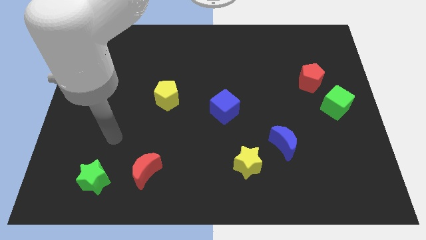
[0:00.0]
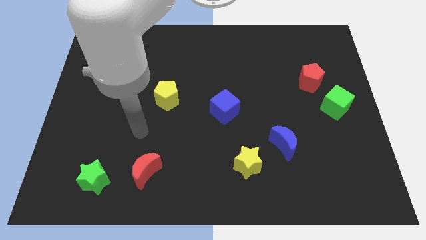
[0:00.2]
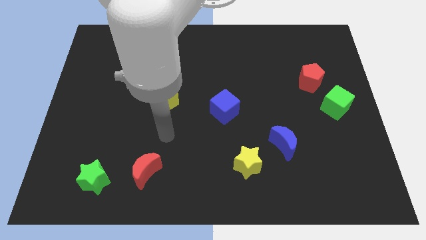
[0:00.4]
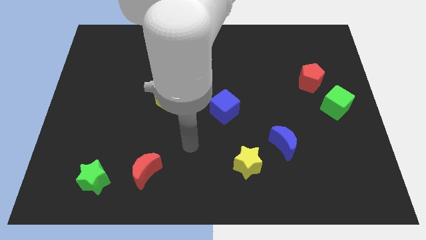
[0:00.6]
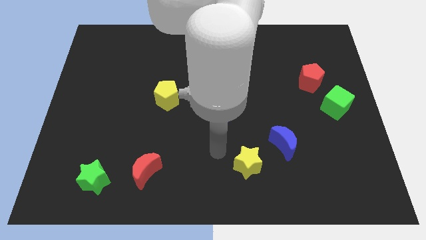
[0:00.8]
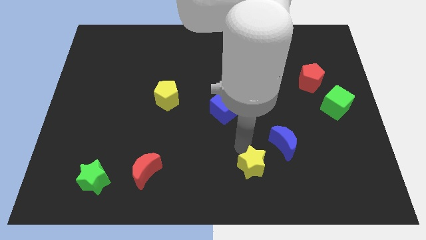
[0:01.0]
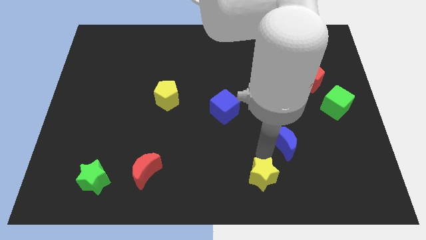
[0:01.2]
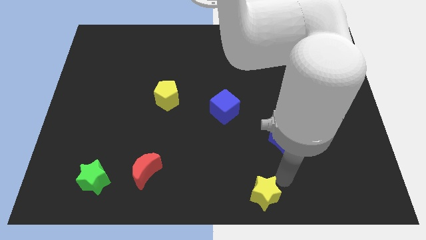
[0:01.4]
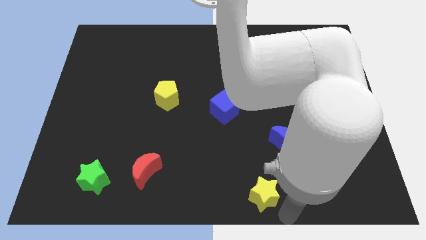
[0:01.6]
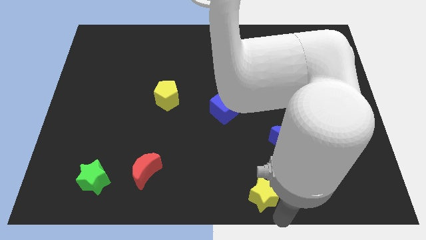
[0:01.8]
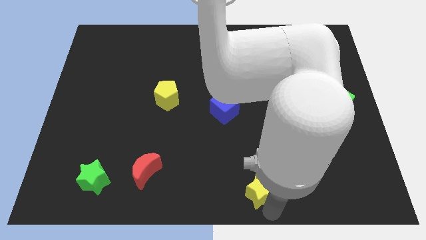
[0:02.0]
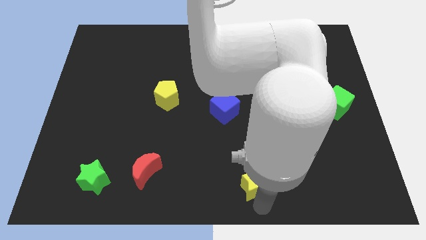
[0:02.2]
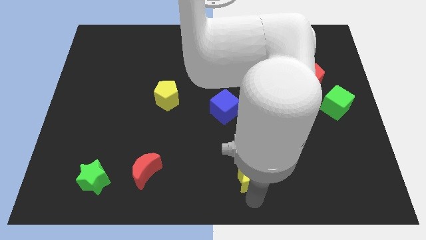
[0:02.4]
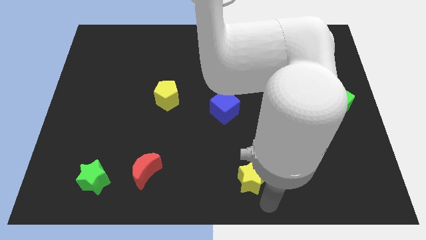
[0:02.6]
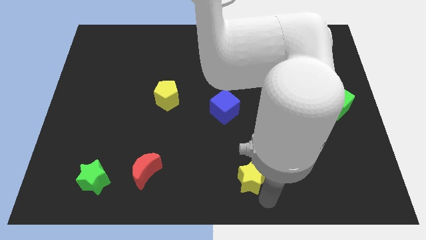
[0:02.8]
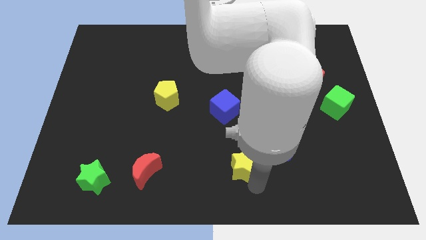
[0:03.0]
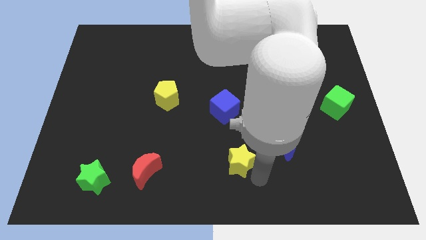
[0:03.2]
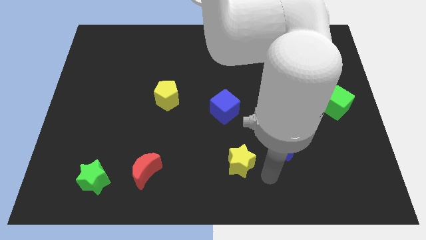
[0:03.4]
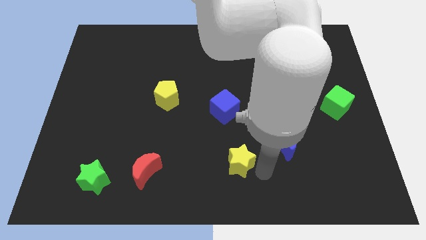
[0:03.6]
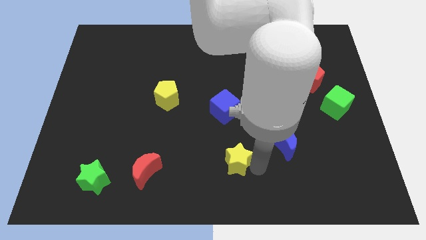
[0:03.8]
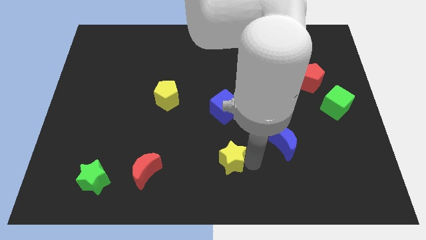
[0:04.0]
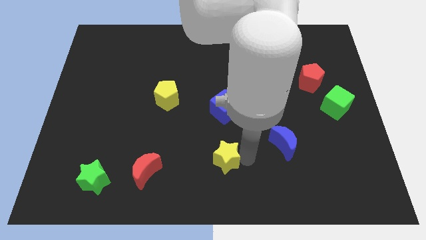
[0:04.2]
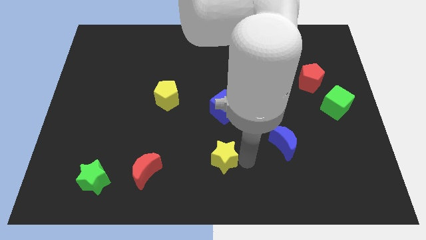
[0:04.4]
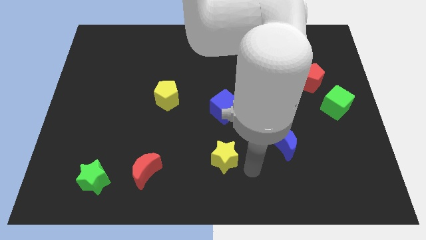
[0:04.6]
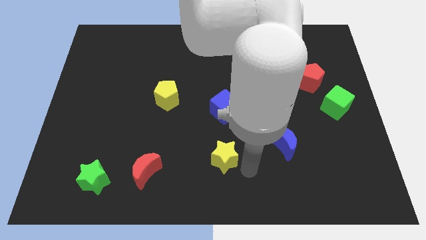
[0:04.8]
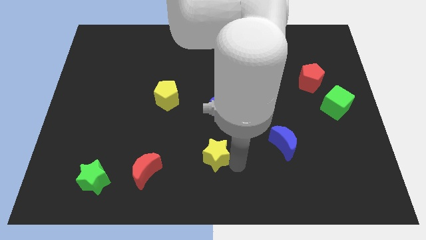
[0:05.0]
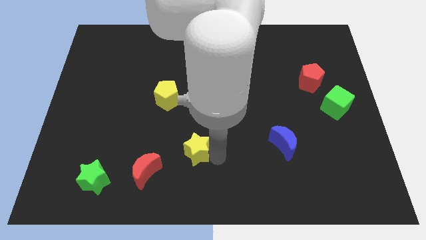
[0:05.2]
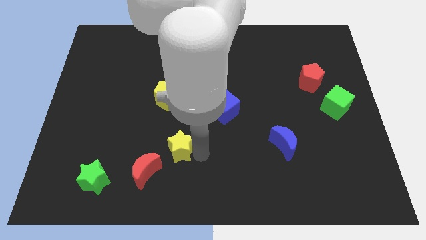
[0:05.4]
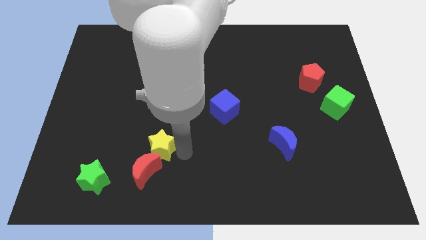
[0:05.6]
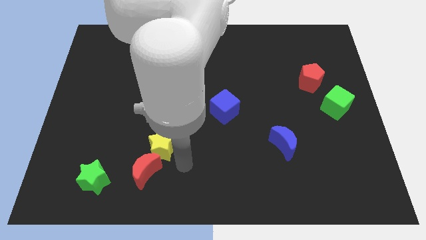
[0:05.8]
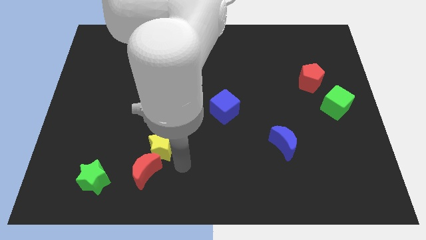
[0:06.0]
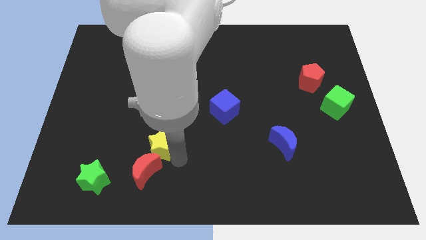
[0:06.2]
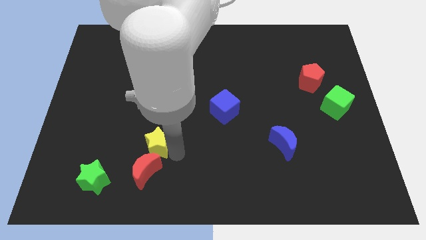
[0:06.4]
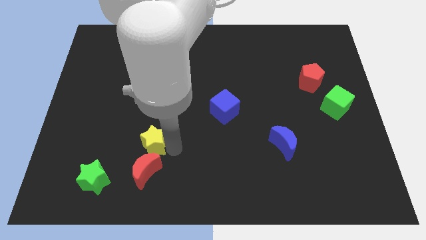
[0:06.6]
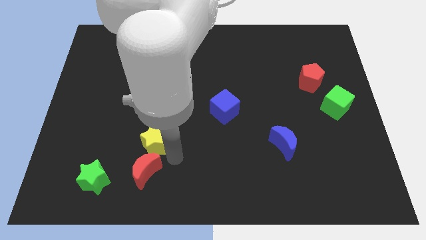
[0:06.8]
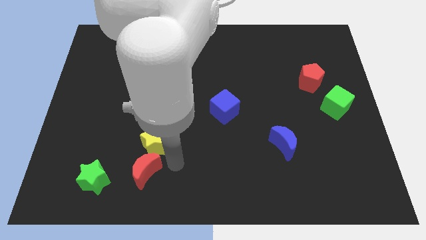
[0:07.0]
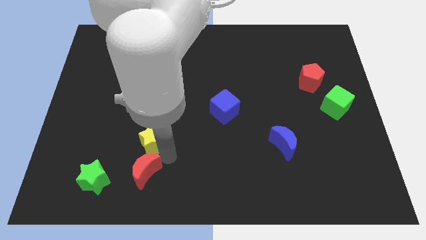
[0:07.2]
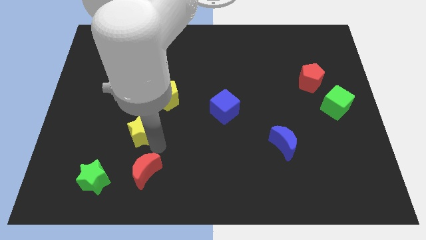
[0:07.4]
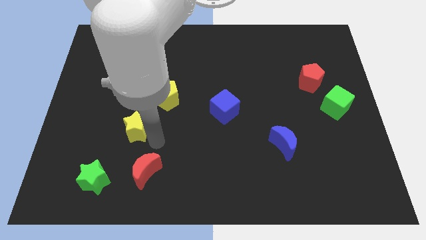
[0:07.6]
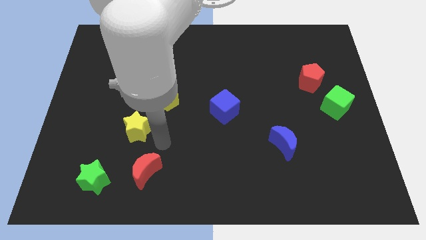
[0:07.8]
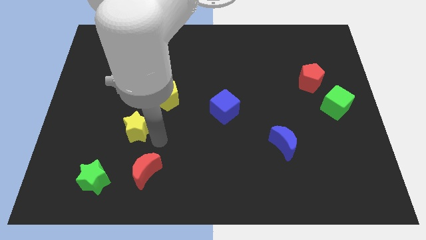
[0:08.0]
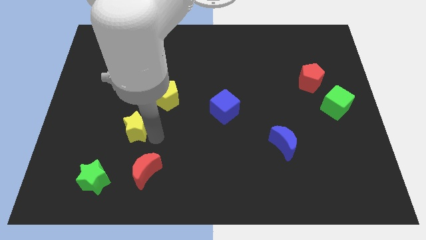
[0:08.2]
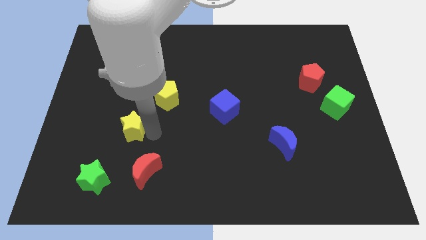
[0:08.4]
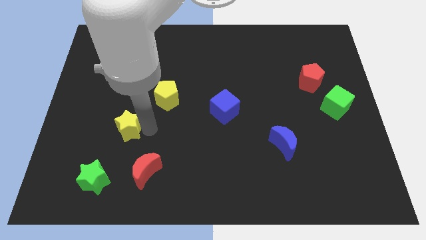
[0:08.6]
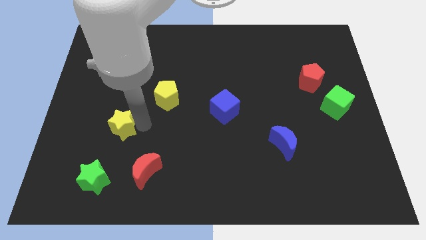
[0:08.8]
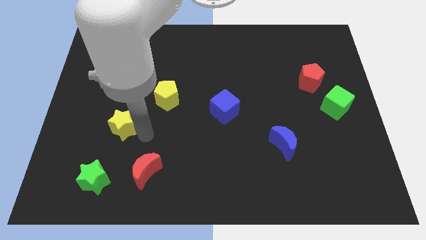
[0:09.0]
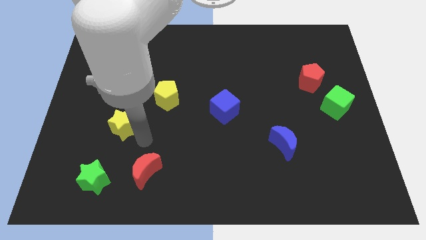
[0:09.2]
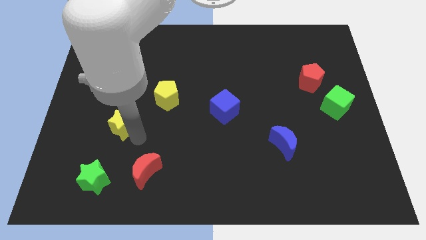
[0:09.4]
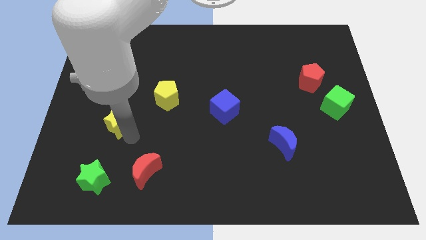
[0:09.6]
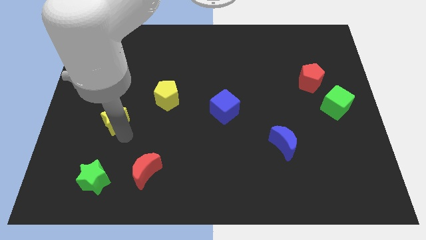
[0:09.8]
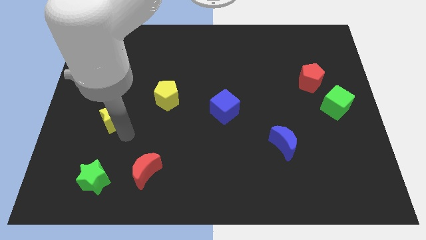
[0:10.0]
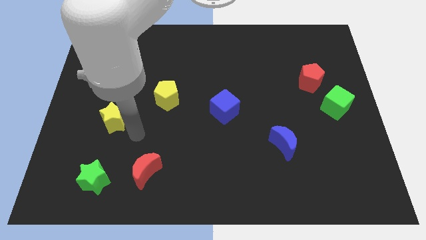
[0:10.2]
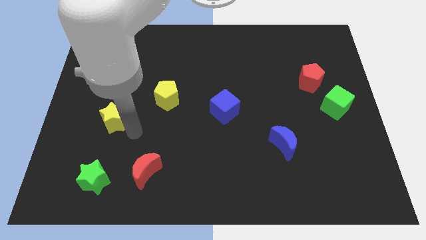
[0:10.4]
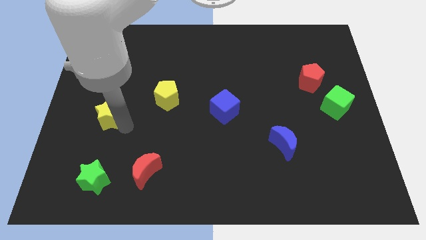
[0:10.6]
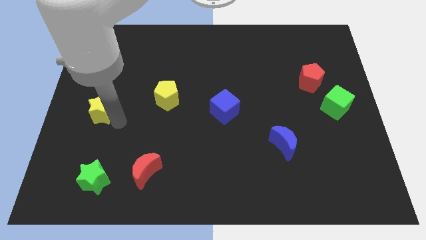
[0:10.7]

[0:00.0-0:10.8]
slide the yellow star to the left side of the board
